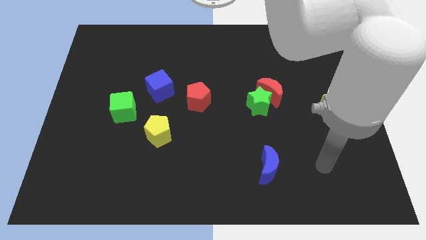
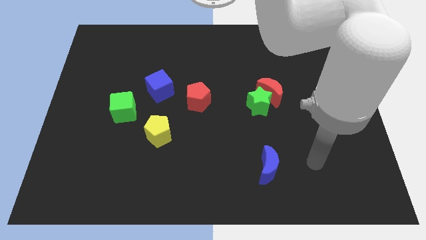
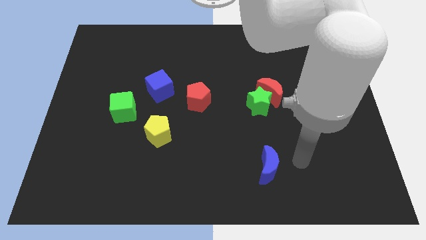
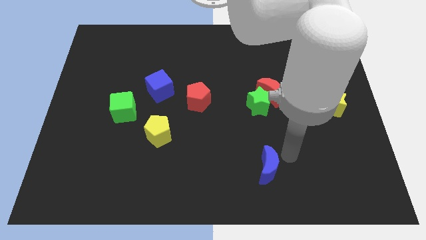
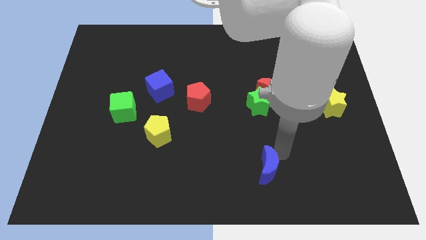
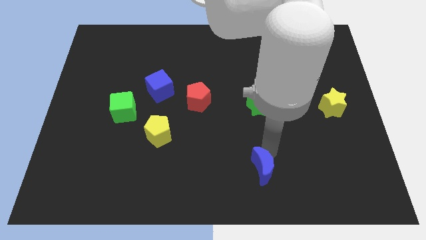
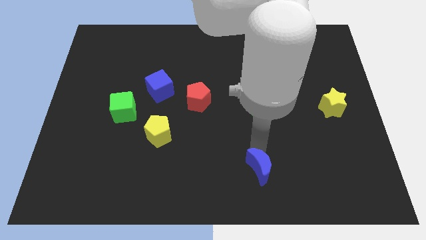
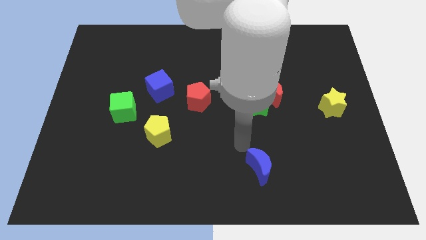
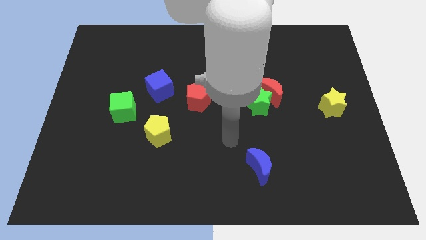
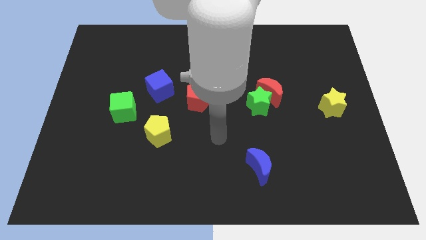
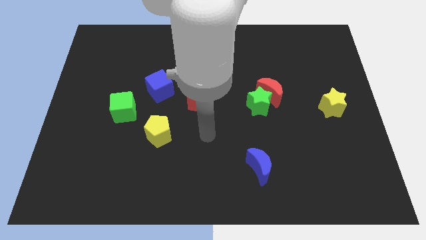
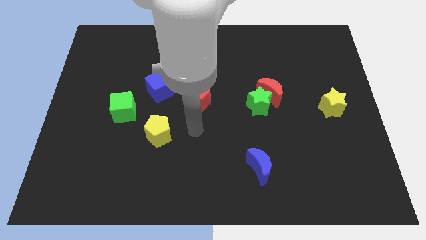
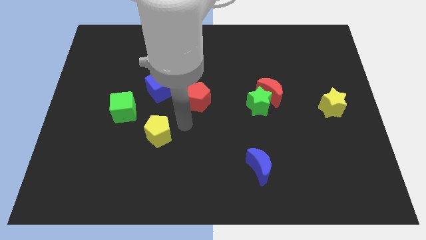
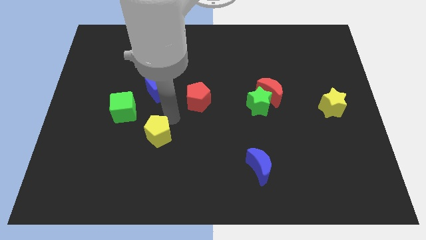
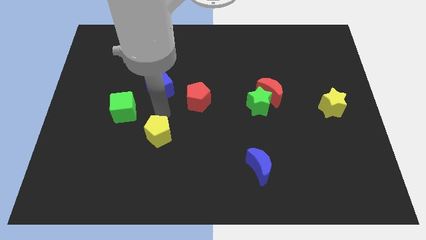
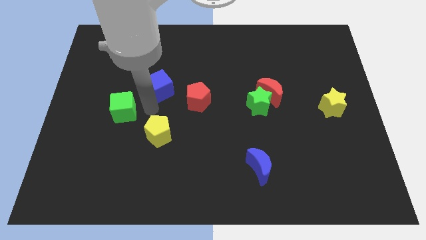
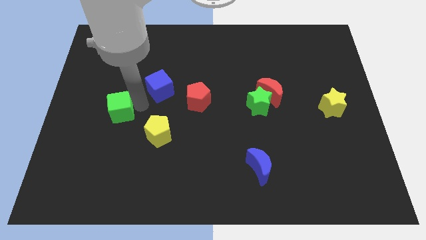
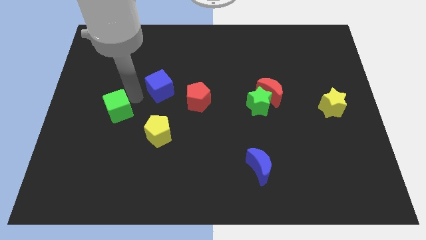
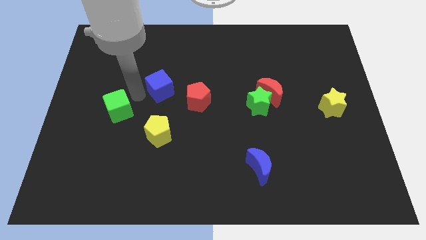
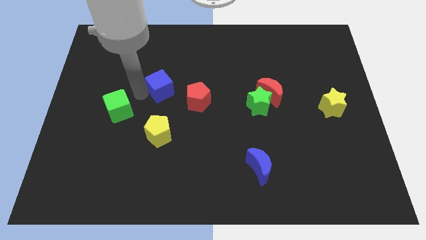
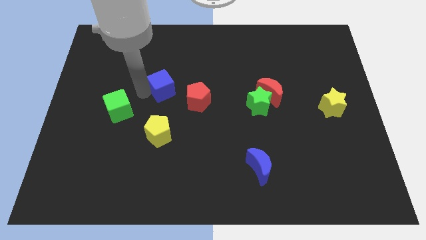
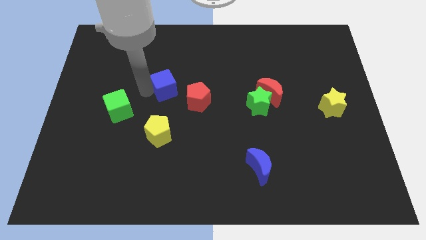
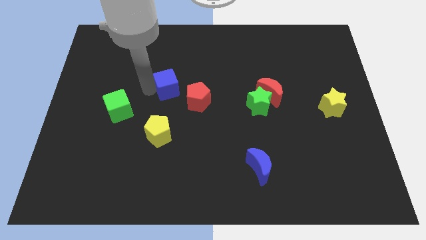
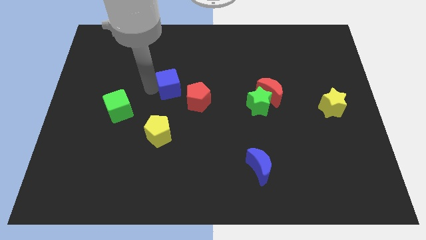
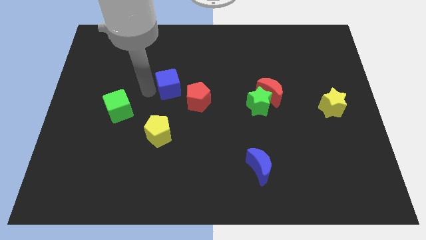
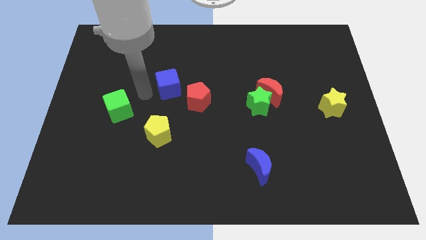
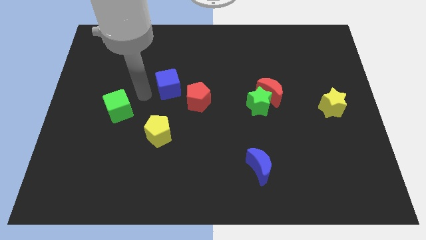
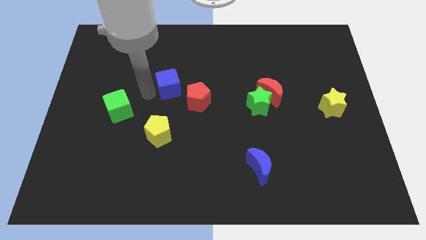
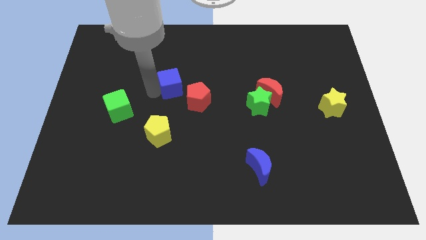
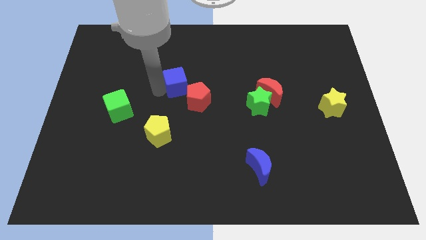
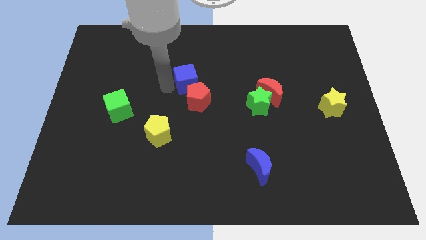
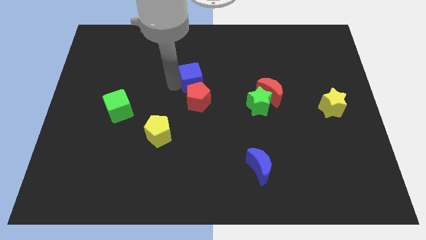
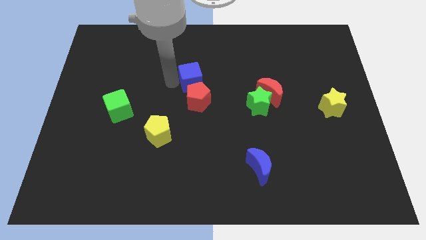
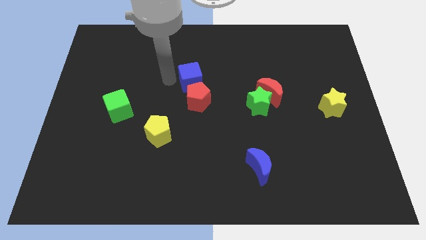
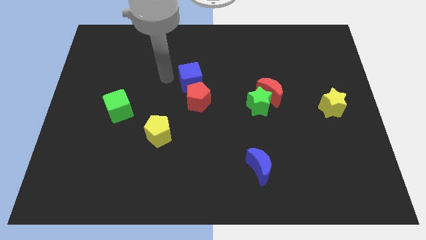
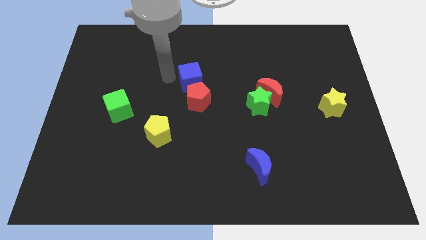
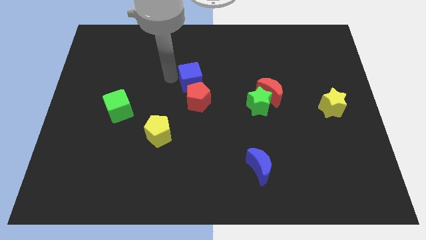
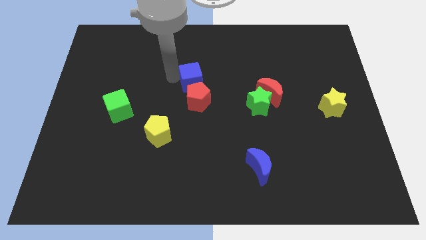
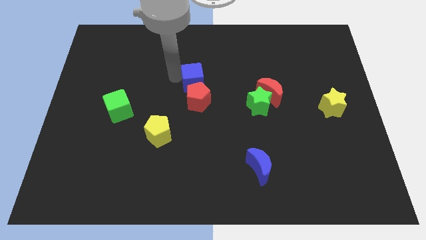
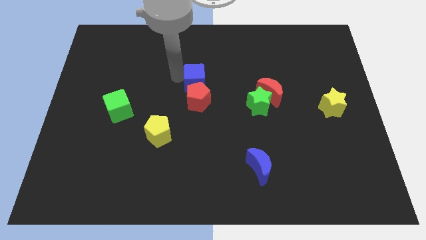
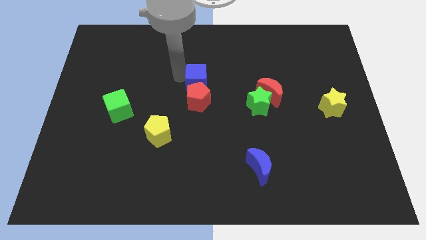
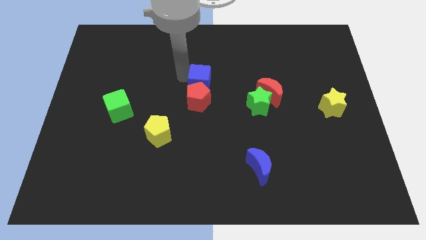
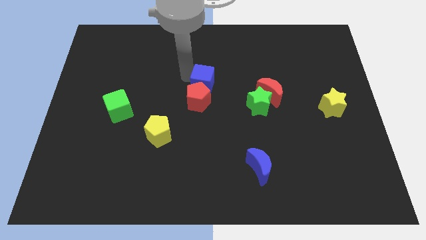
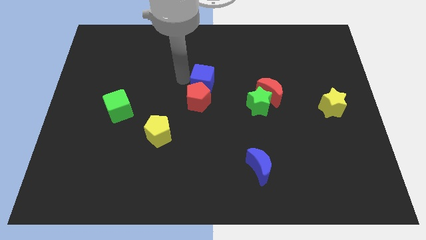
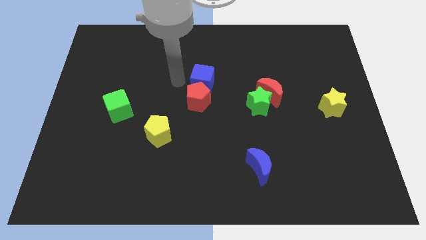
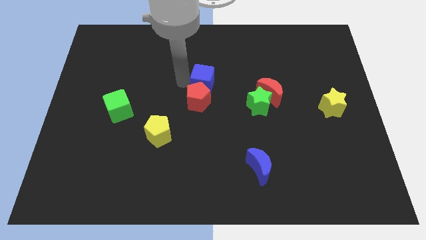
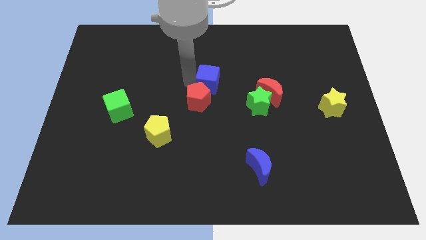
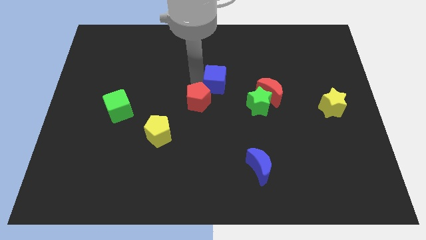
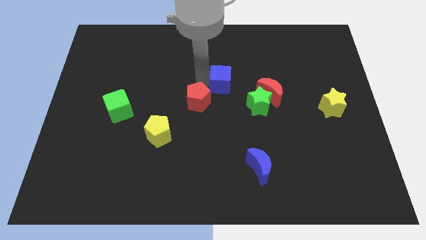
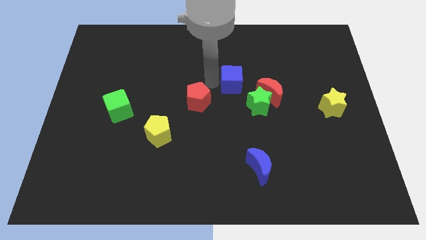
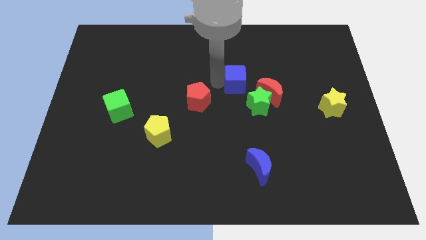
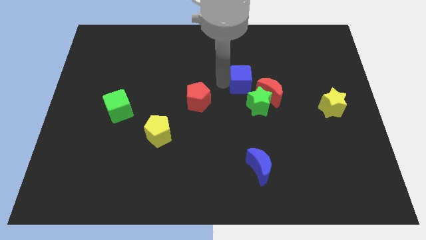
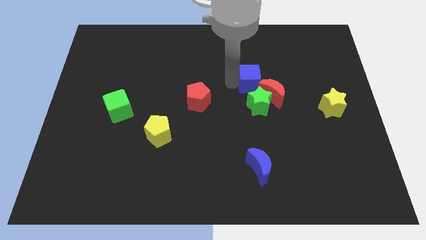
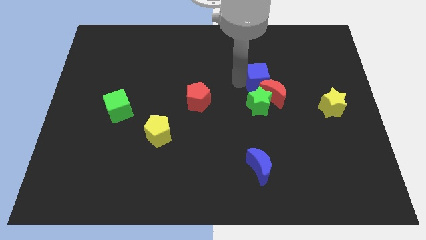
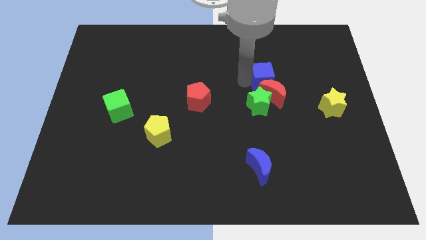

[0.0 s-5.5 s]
push the blue cube diagonally up and to the right of the green star

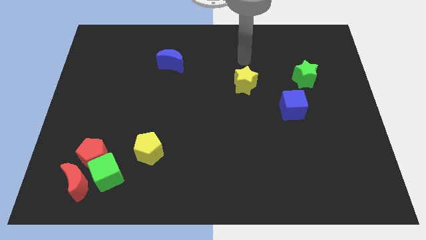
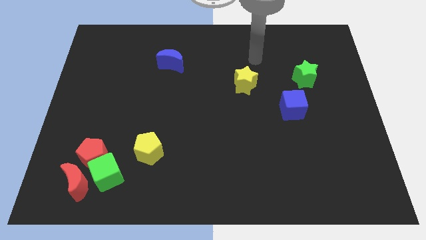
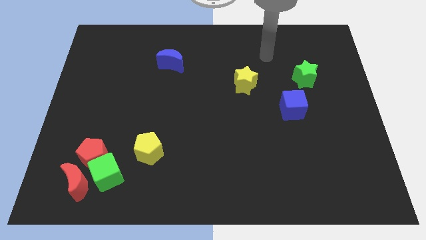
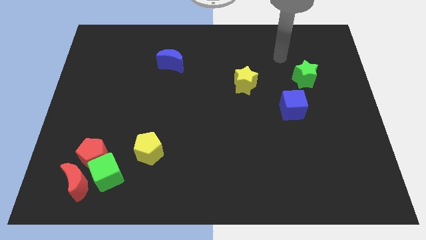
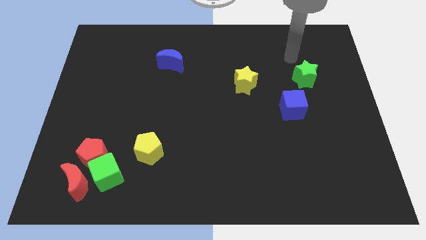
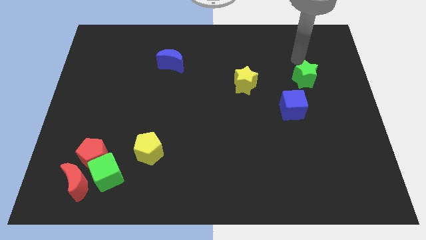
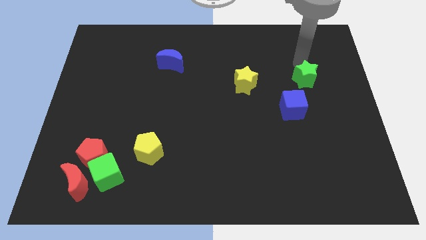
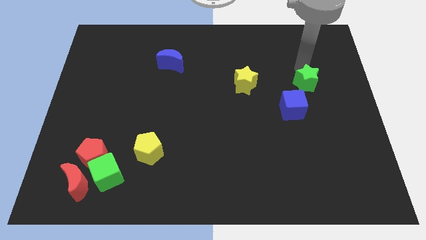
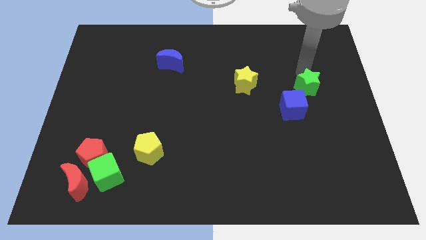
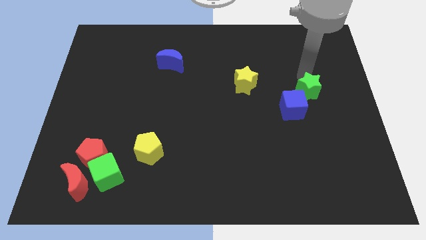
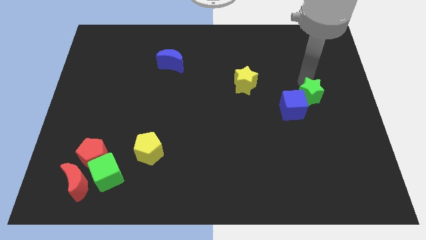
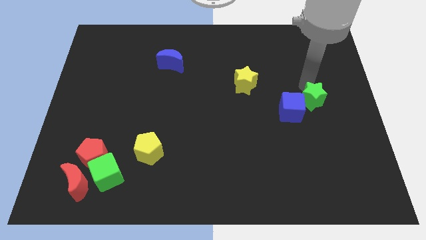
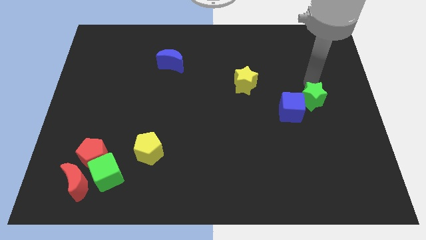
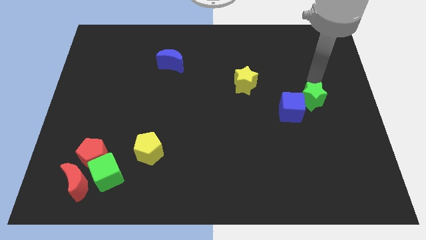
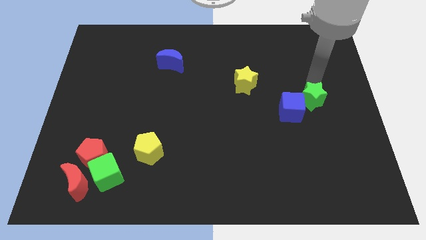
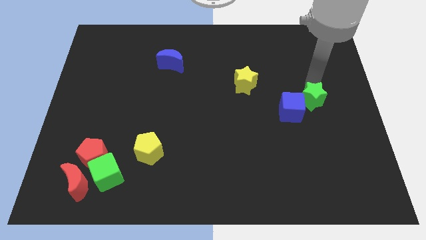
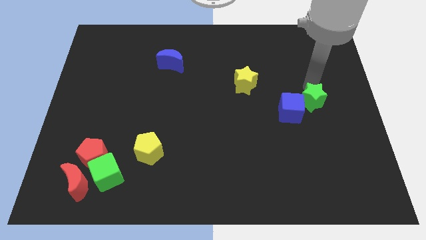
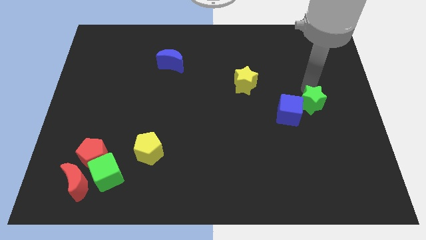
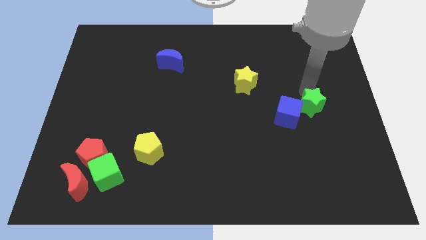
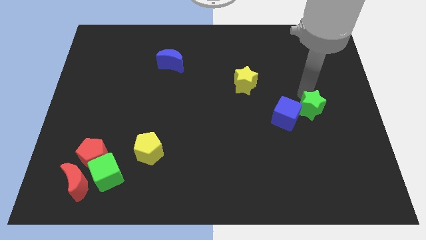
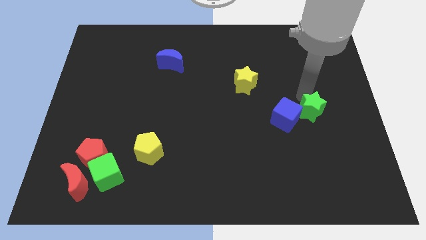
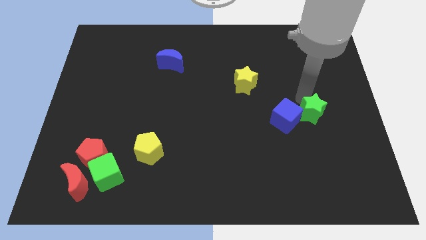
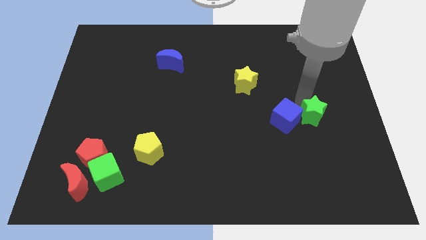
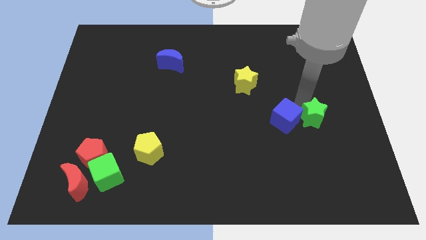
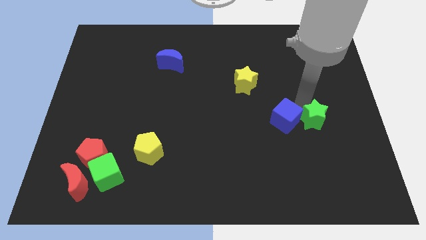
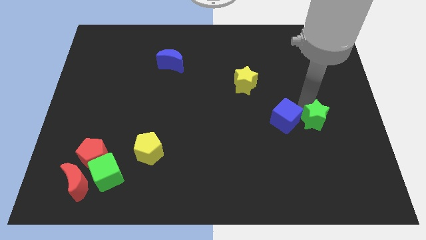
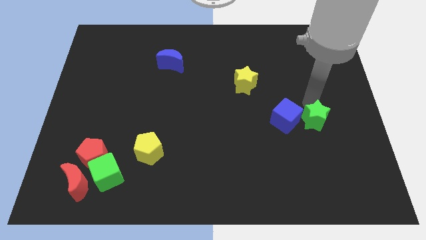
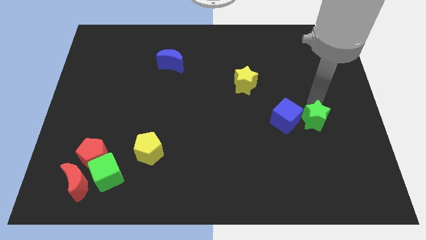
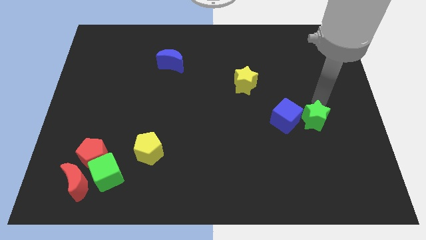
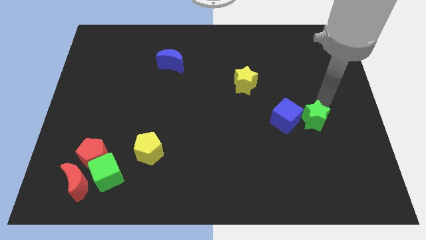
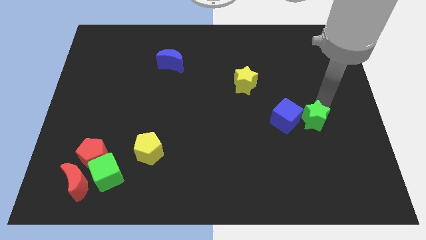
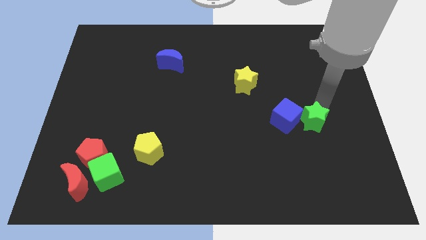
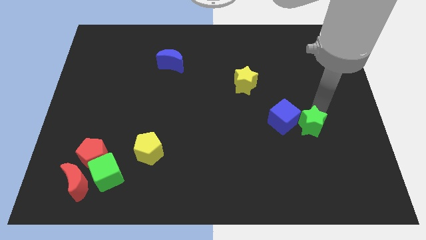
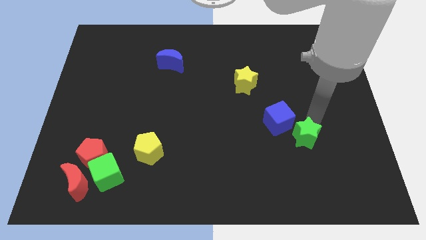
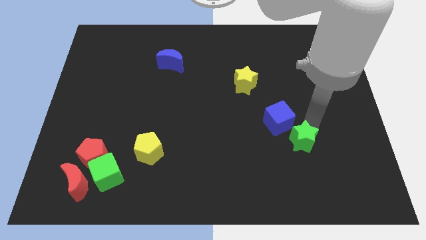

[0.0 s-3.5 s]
push the green star to the bottom side of the blue cube
